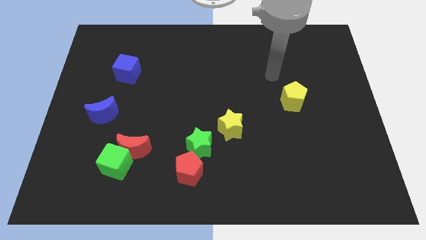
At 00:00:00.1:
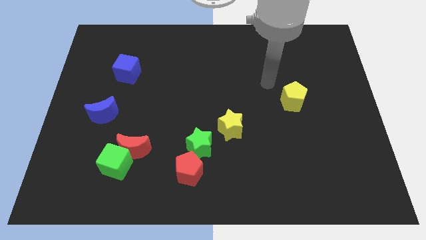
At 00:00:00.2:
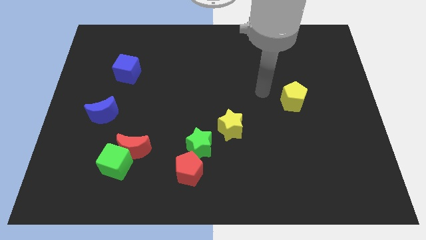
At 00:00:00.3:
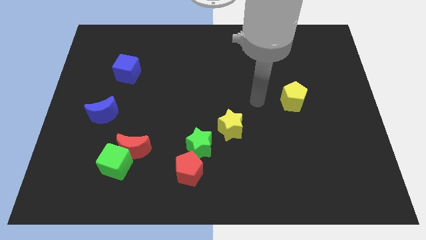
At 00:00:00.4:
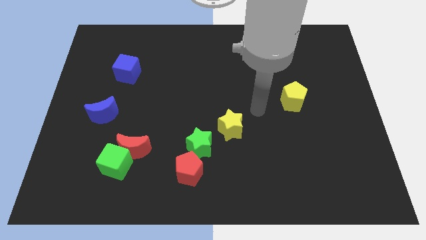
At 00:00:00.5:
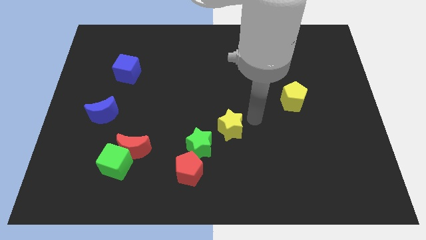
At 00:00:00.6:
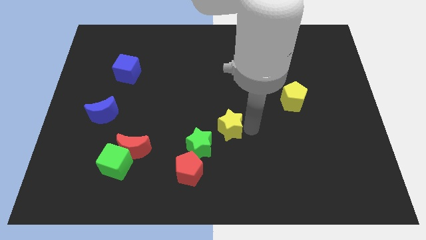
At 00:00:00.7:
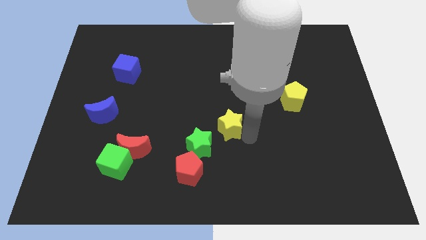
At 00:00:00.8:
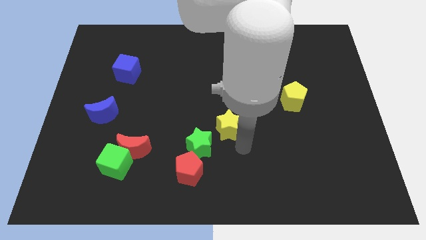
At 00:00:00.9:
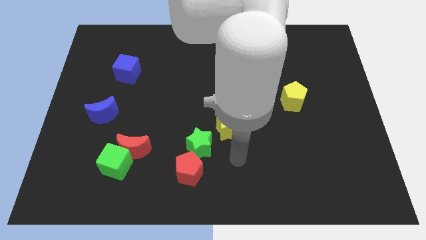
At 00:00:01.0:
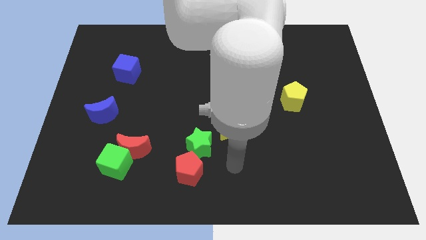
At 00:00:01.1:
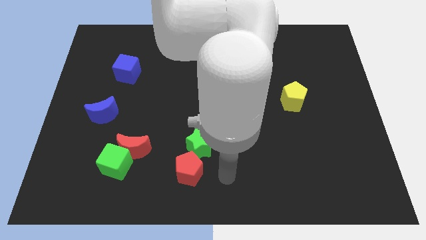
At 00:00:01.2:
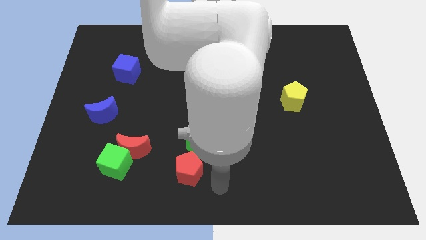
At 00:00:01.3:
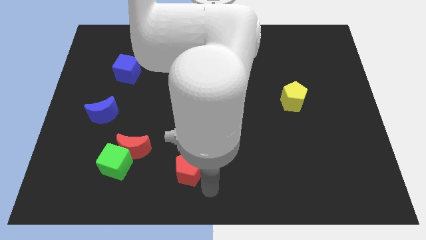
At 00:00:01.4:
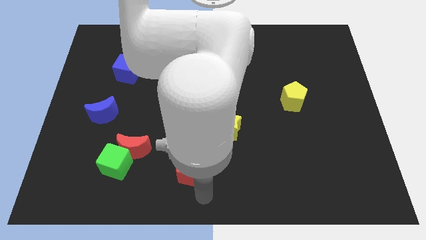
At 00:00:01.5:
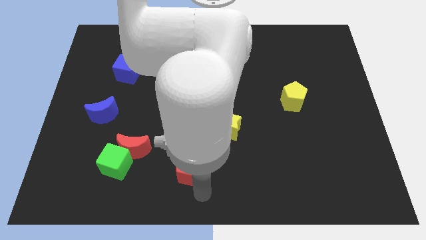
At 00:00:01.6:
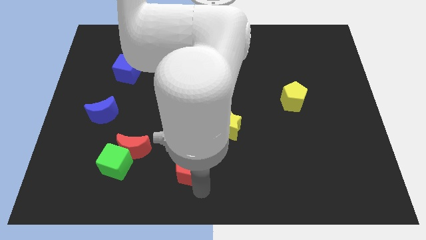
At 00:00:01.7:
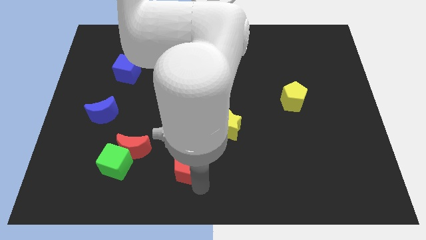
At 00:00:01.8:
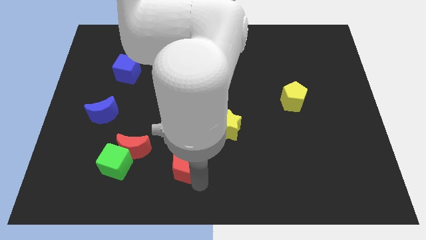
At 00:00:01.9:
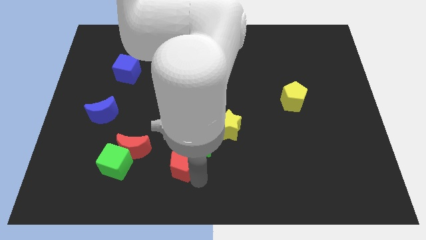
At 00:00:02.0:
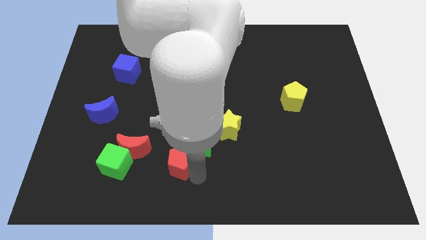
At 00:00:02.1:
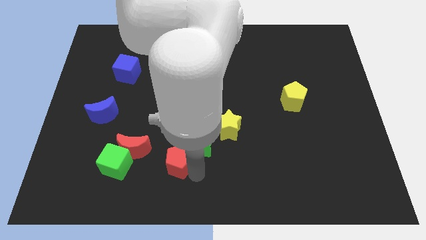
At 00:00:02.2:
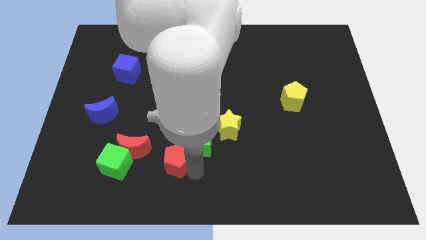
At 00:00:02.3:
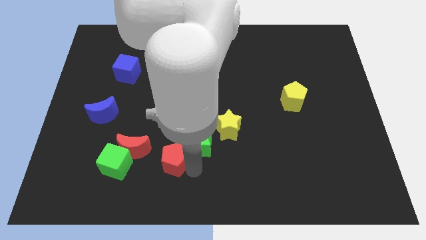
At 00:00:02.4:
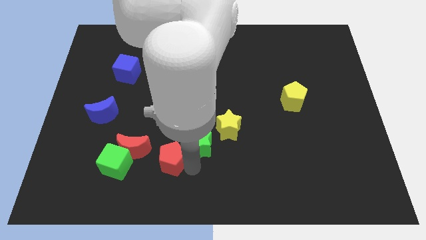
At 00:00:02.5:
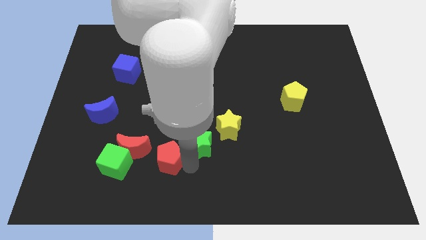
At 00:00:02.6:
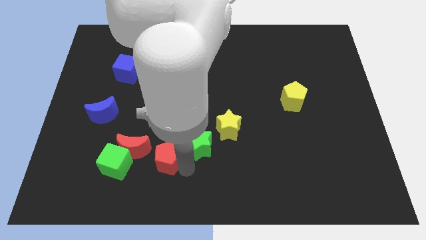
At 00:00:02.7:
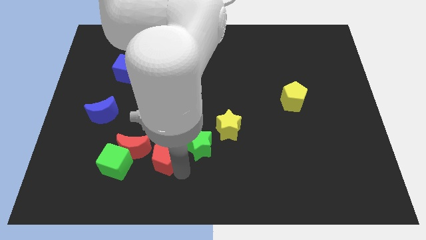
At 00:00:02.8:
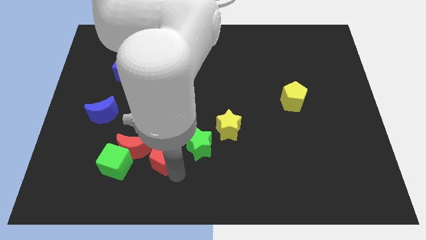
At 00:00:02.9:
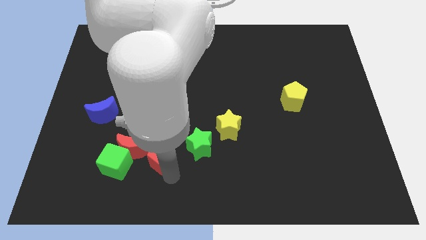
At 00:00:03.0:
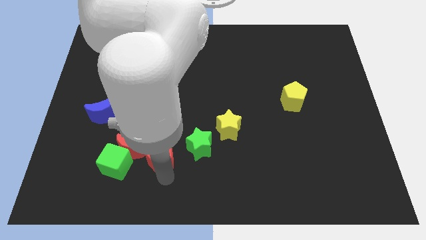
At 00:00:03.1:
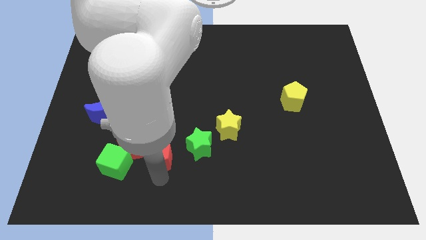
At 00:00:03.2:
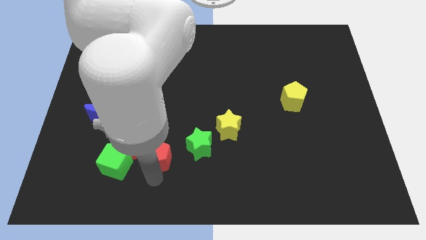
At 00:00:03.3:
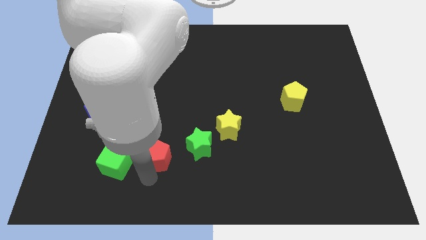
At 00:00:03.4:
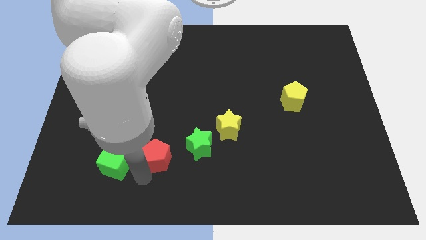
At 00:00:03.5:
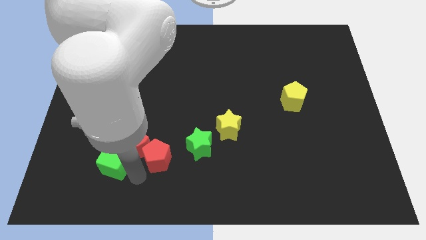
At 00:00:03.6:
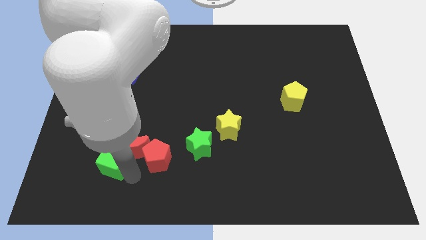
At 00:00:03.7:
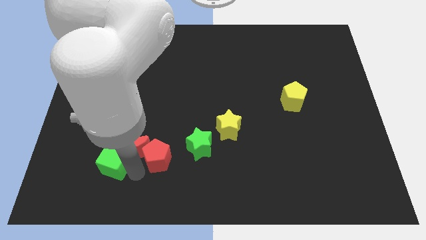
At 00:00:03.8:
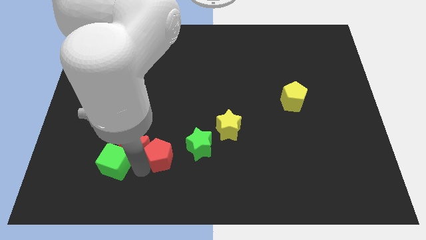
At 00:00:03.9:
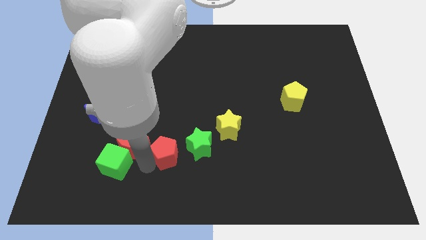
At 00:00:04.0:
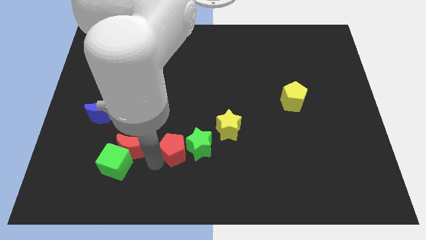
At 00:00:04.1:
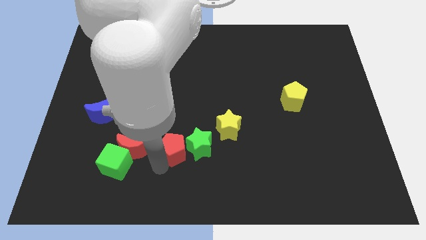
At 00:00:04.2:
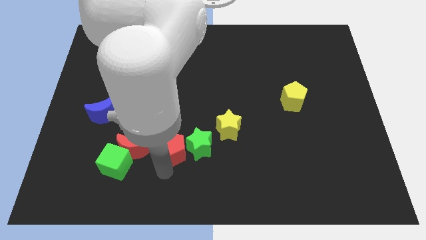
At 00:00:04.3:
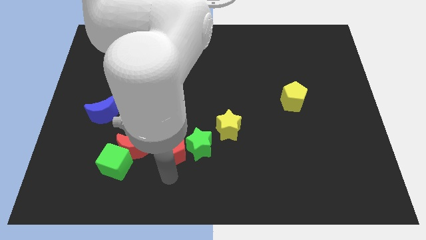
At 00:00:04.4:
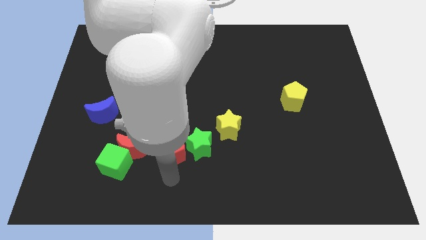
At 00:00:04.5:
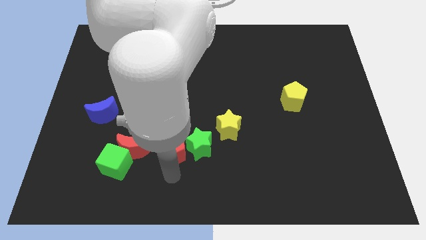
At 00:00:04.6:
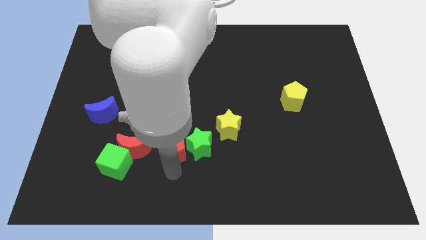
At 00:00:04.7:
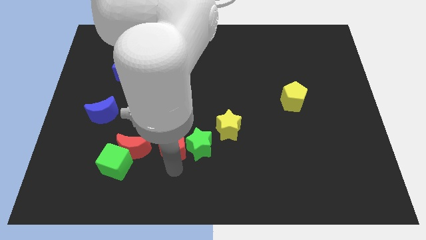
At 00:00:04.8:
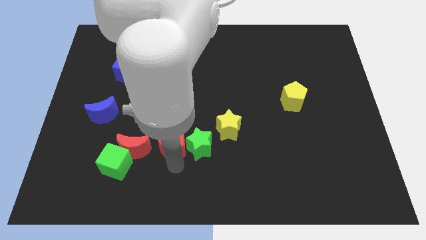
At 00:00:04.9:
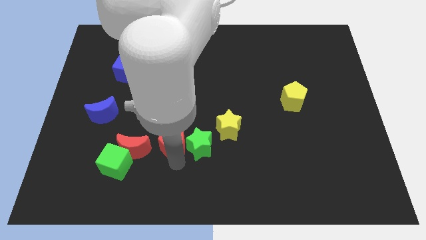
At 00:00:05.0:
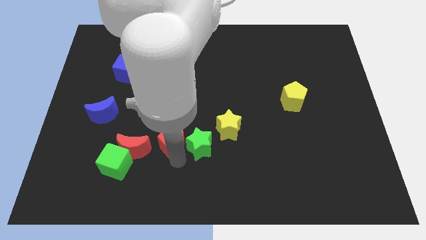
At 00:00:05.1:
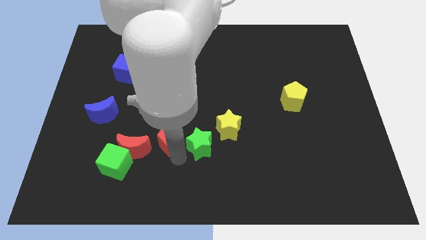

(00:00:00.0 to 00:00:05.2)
push the red pentagon a little upwards

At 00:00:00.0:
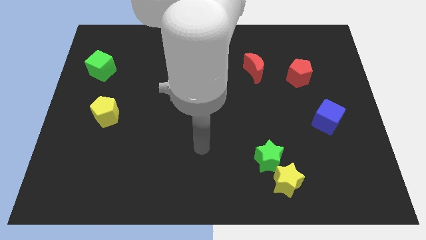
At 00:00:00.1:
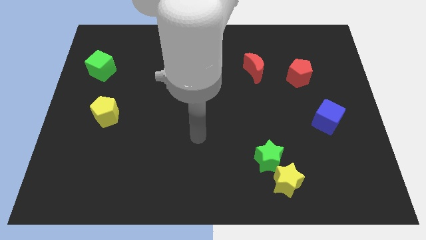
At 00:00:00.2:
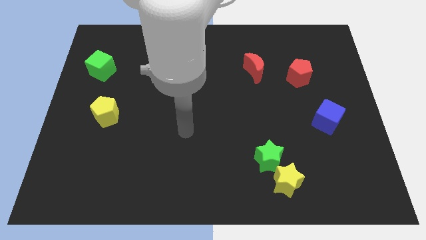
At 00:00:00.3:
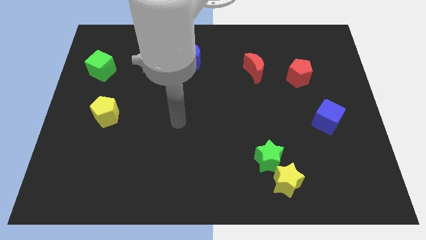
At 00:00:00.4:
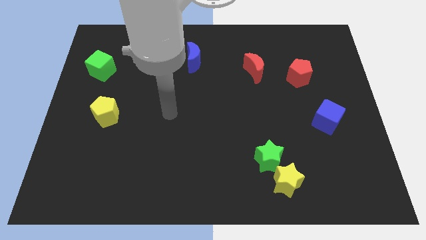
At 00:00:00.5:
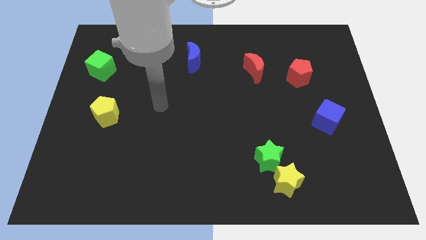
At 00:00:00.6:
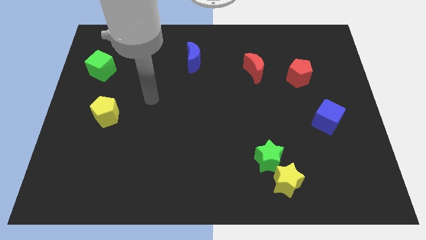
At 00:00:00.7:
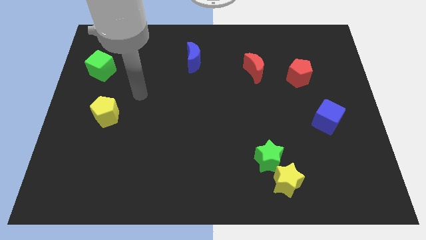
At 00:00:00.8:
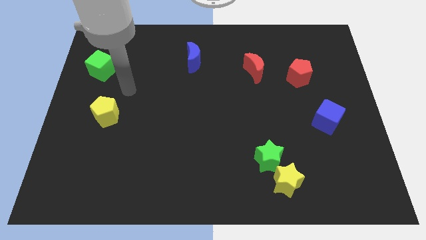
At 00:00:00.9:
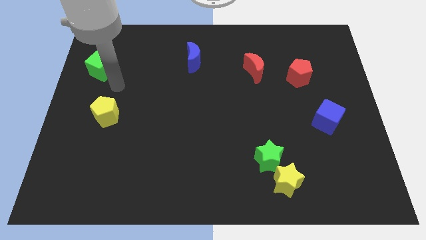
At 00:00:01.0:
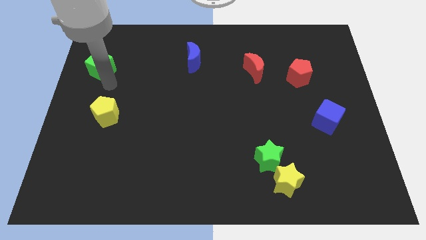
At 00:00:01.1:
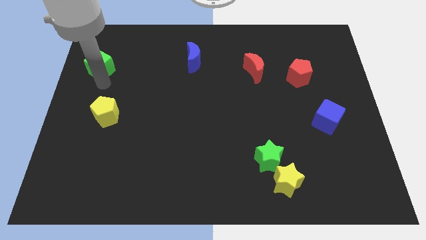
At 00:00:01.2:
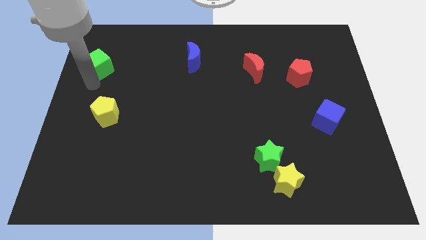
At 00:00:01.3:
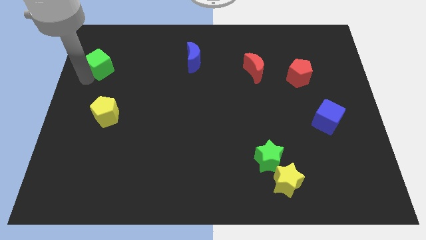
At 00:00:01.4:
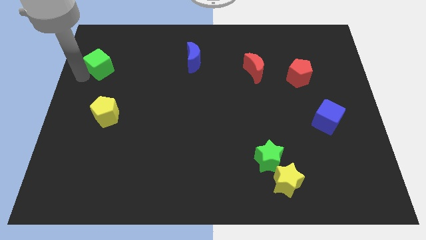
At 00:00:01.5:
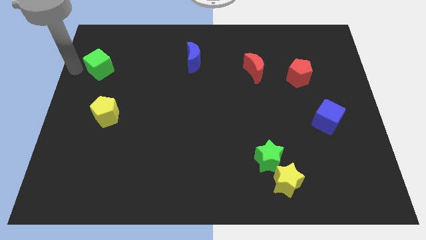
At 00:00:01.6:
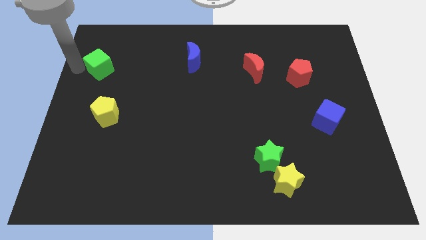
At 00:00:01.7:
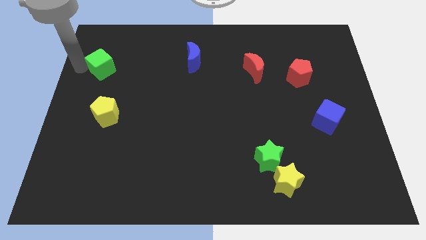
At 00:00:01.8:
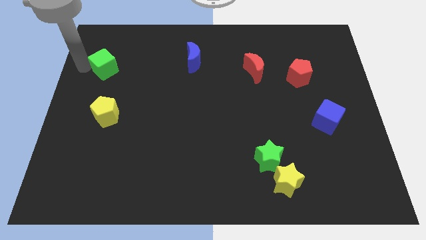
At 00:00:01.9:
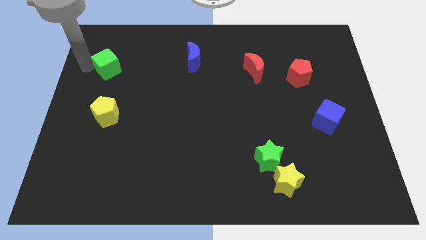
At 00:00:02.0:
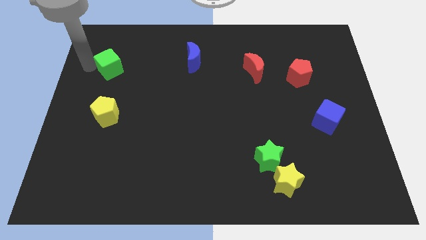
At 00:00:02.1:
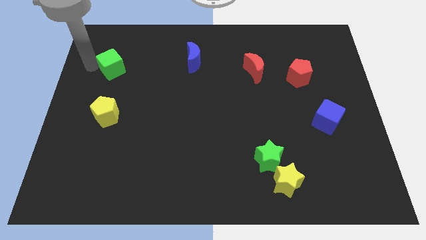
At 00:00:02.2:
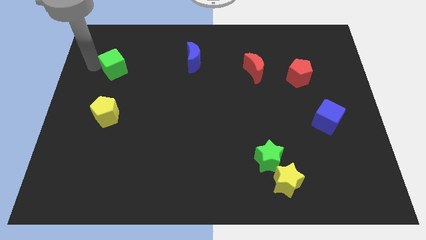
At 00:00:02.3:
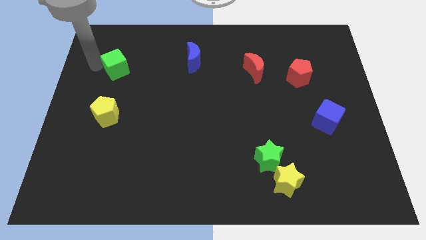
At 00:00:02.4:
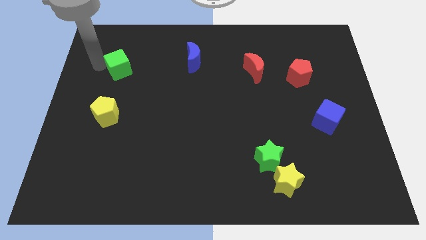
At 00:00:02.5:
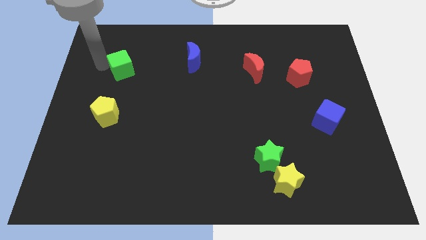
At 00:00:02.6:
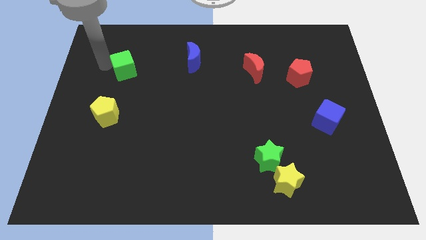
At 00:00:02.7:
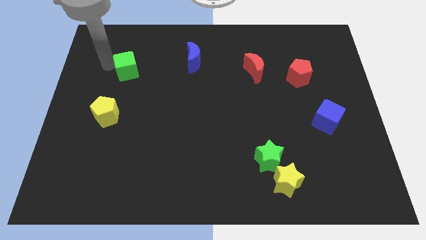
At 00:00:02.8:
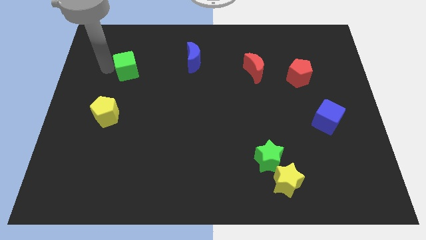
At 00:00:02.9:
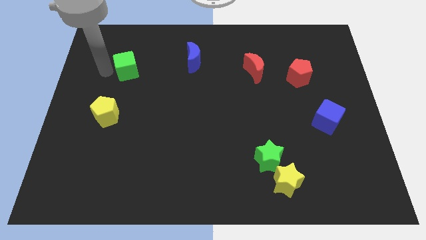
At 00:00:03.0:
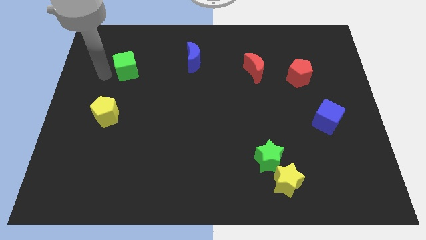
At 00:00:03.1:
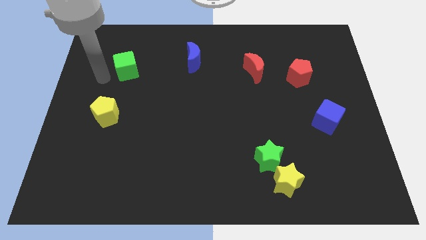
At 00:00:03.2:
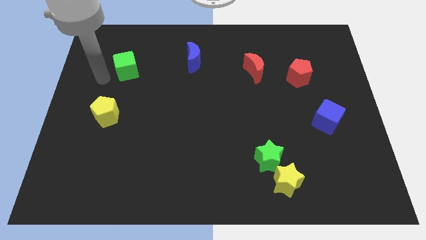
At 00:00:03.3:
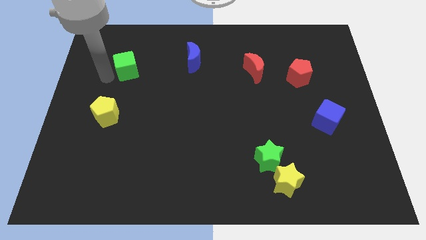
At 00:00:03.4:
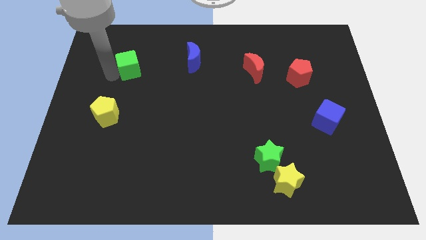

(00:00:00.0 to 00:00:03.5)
slightly push the green cube right
